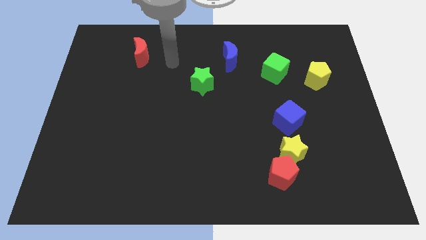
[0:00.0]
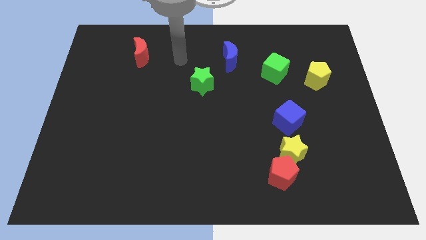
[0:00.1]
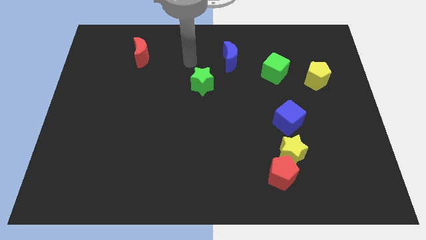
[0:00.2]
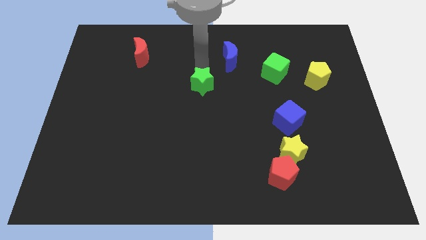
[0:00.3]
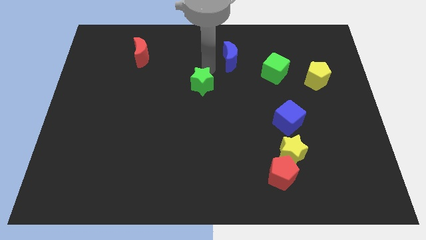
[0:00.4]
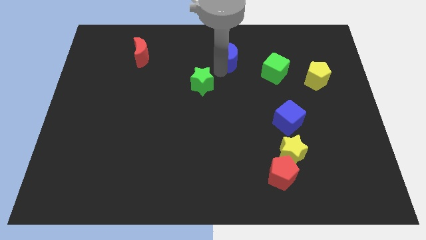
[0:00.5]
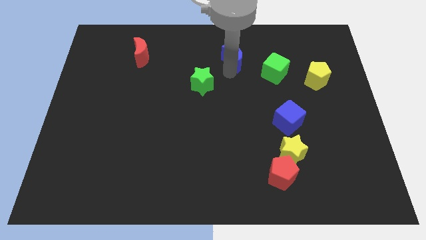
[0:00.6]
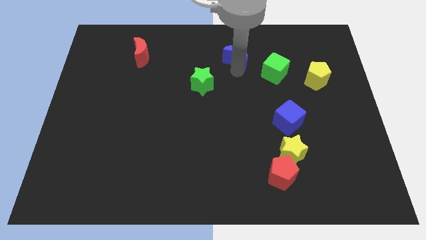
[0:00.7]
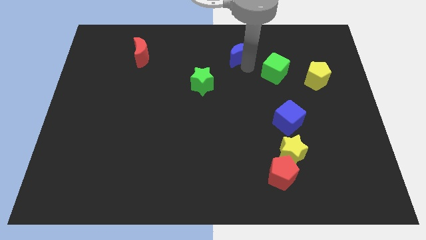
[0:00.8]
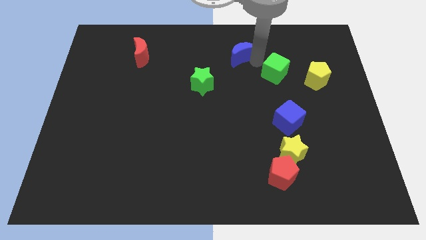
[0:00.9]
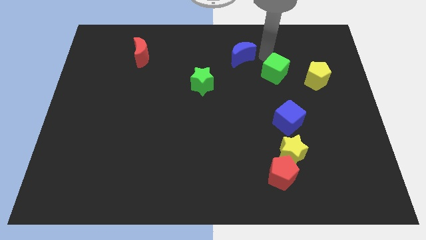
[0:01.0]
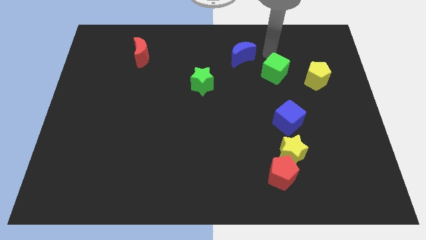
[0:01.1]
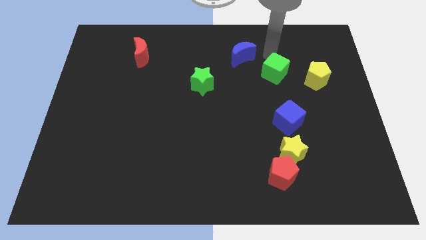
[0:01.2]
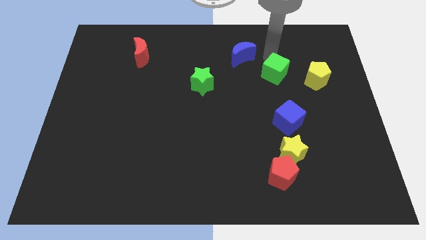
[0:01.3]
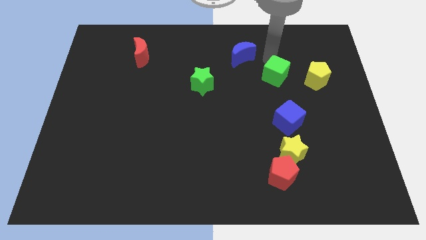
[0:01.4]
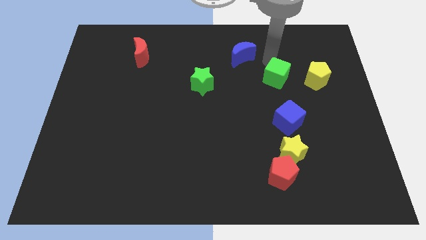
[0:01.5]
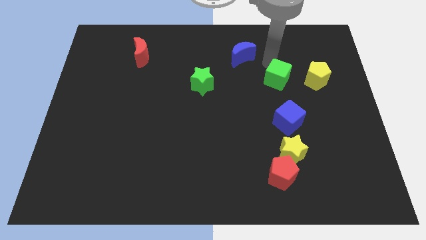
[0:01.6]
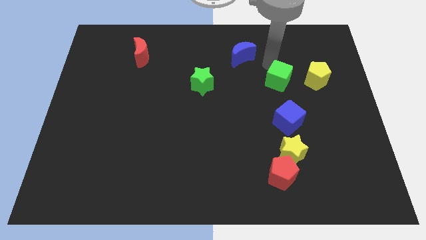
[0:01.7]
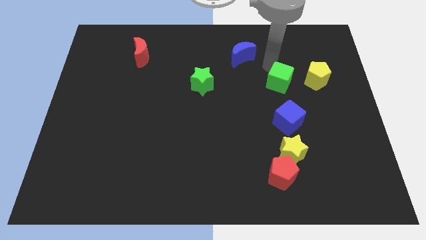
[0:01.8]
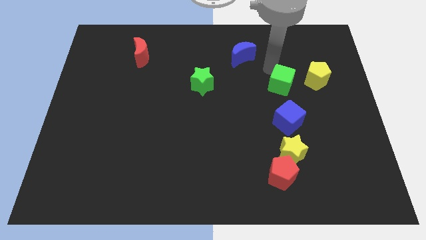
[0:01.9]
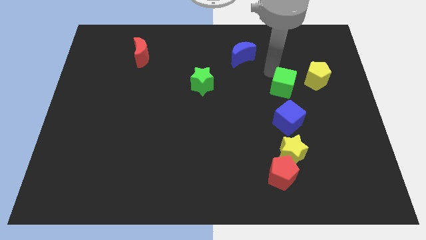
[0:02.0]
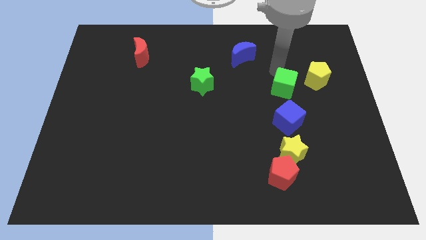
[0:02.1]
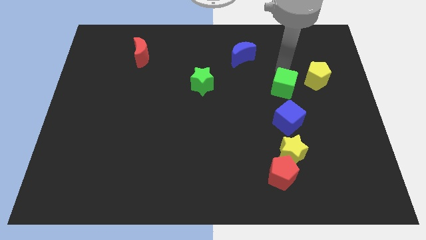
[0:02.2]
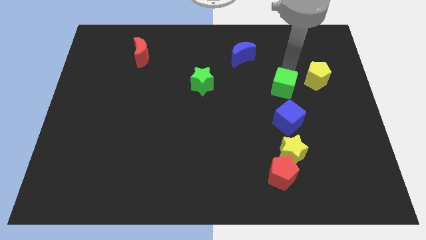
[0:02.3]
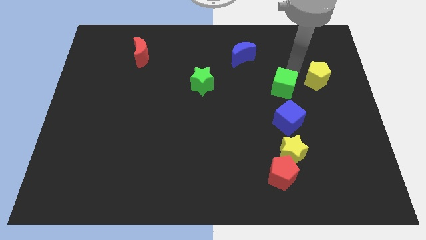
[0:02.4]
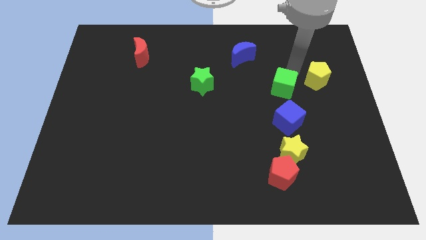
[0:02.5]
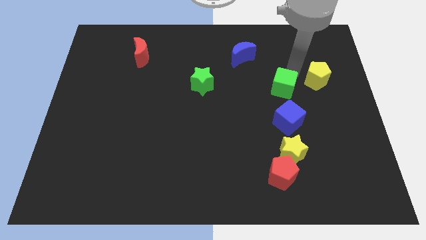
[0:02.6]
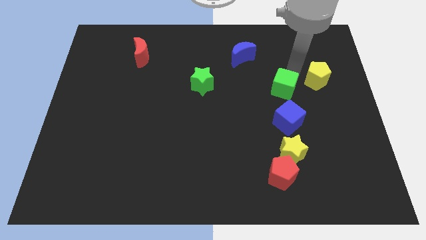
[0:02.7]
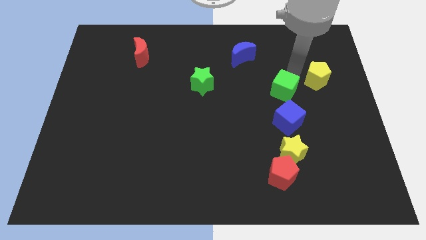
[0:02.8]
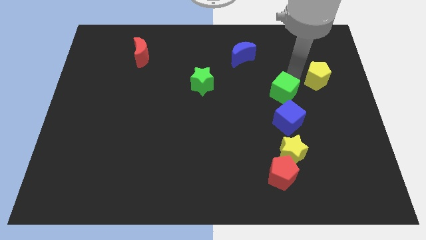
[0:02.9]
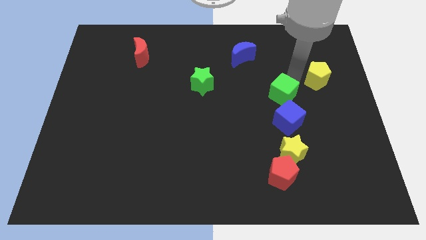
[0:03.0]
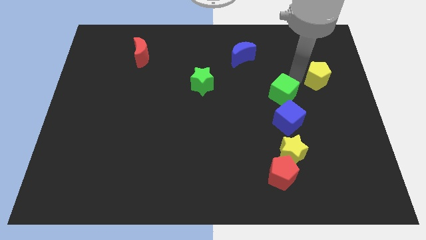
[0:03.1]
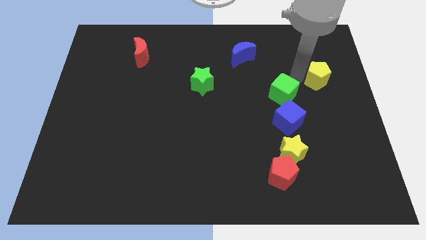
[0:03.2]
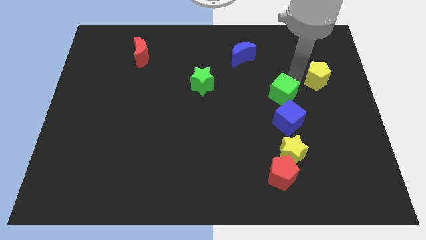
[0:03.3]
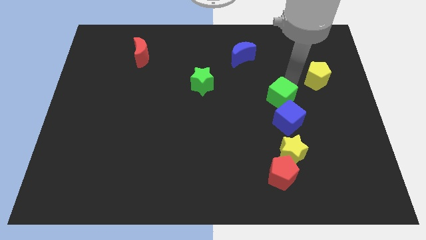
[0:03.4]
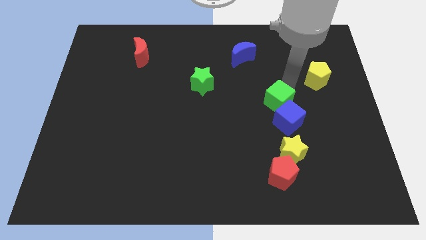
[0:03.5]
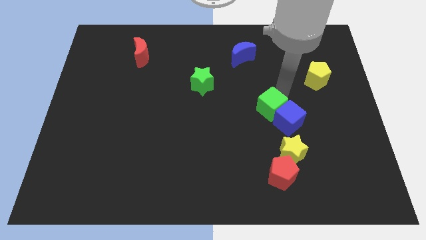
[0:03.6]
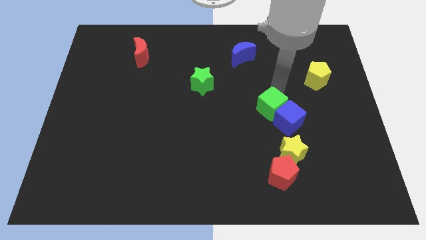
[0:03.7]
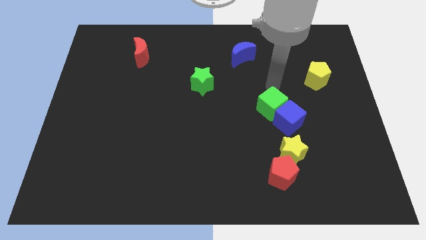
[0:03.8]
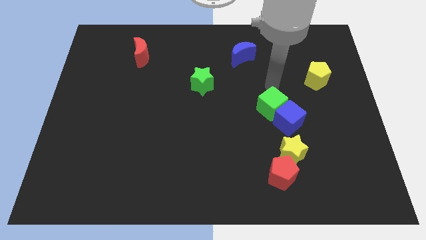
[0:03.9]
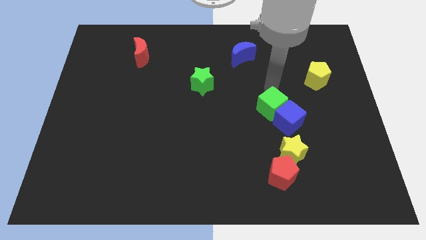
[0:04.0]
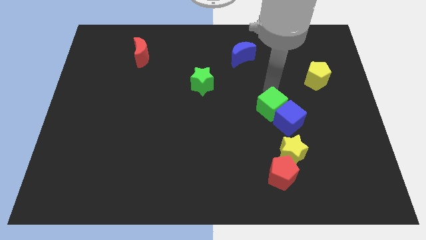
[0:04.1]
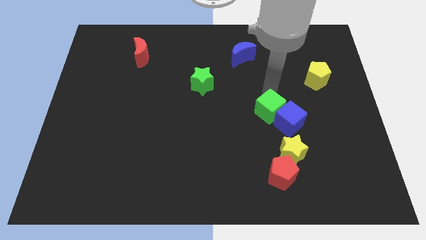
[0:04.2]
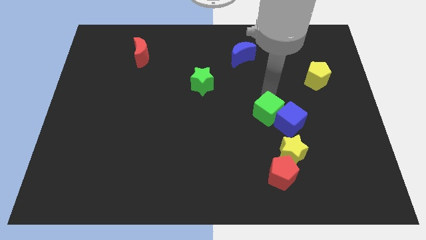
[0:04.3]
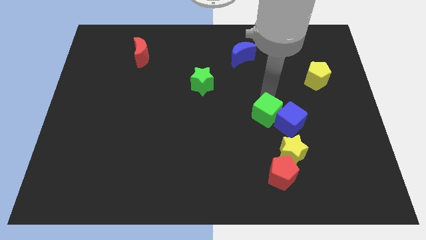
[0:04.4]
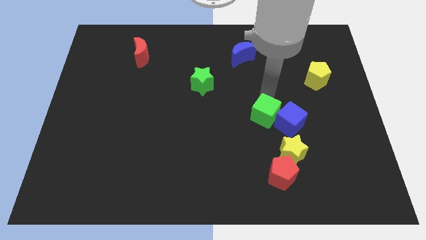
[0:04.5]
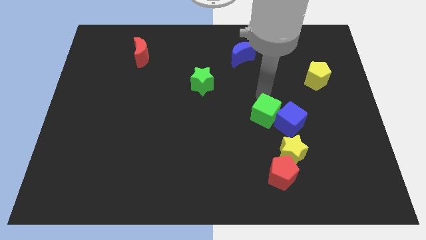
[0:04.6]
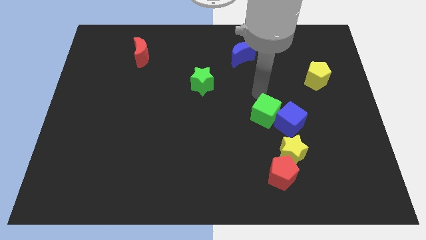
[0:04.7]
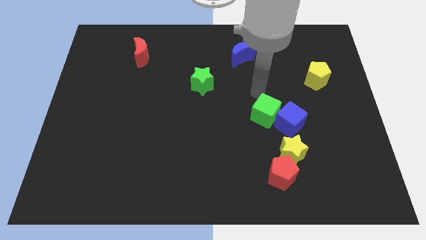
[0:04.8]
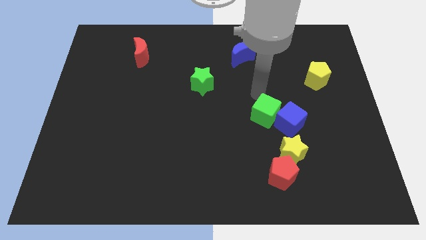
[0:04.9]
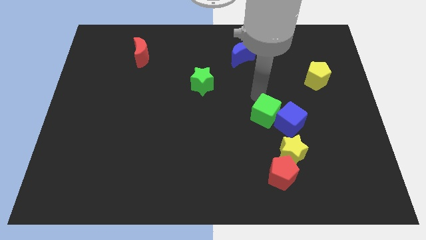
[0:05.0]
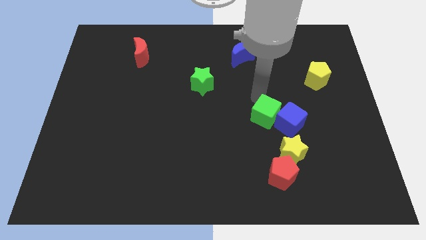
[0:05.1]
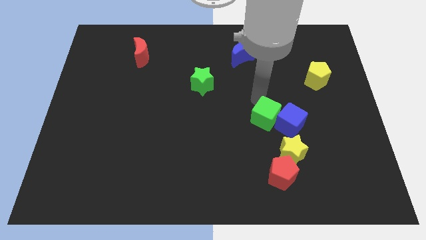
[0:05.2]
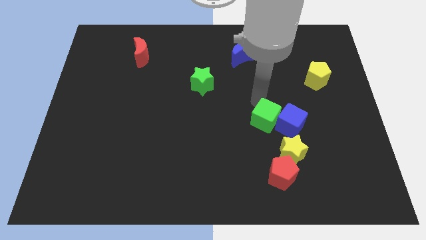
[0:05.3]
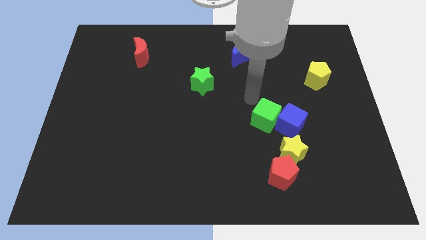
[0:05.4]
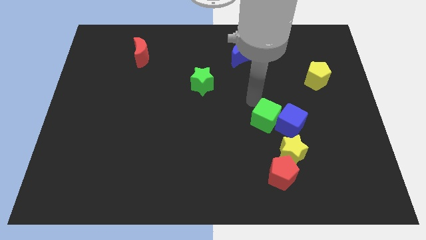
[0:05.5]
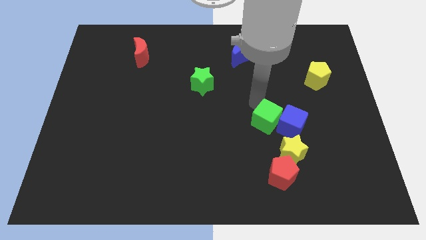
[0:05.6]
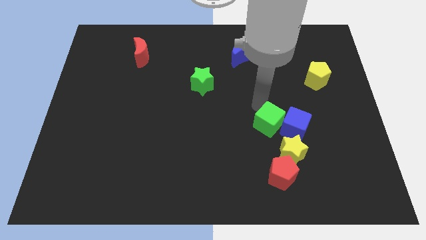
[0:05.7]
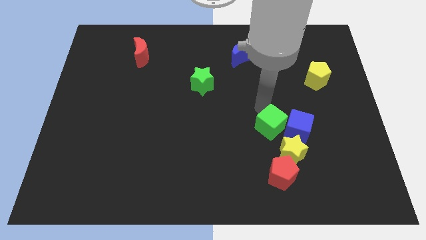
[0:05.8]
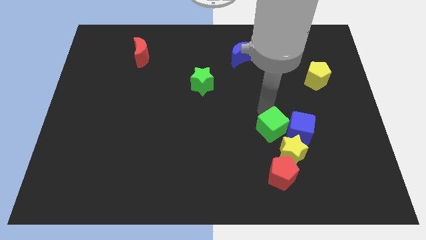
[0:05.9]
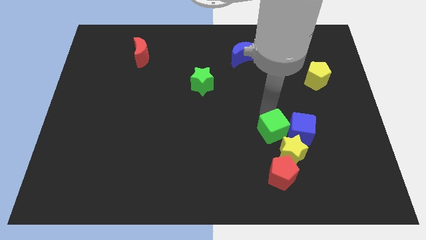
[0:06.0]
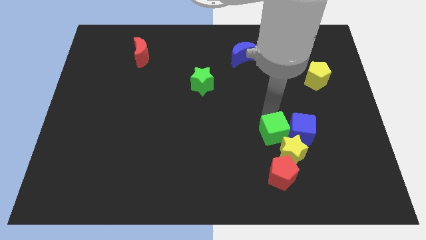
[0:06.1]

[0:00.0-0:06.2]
put the green cube close to the yellow star

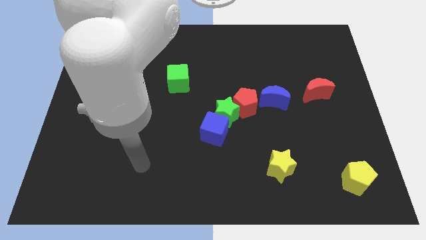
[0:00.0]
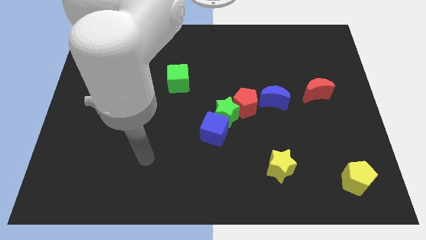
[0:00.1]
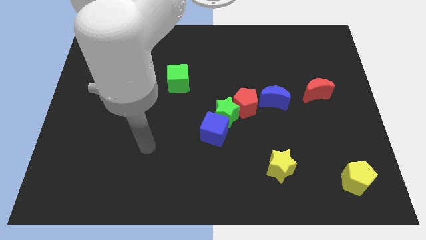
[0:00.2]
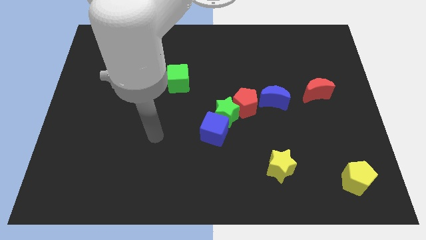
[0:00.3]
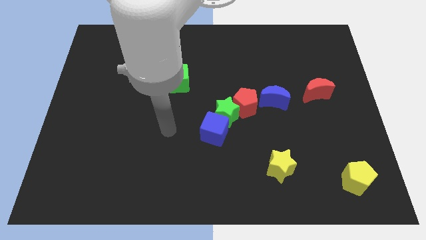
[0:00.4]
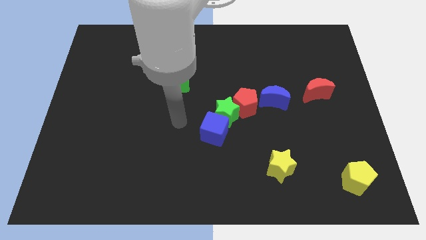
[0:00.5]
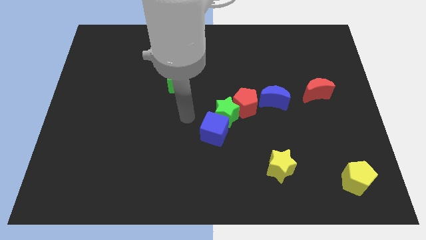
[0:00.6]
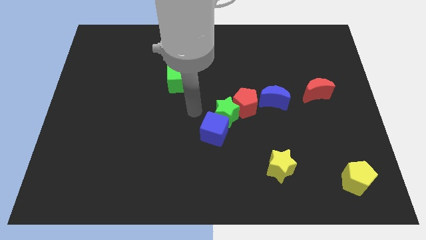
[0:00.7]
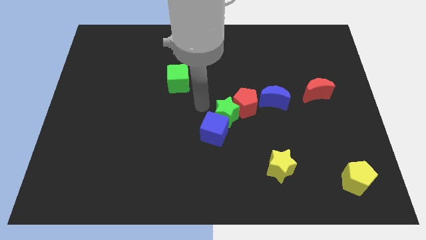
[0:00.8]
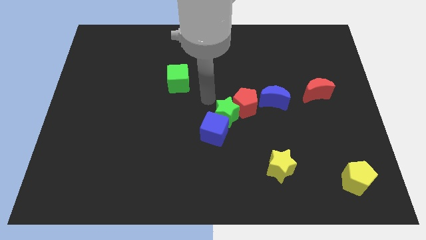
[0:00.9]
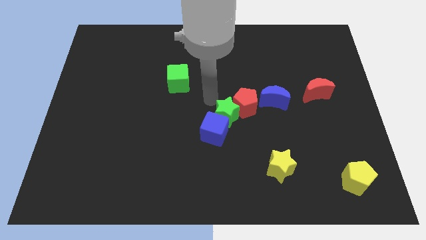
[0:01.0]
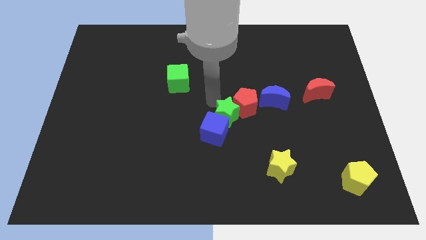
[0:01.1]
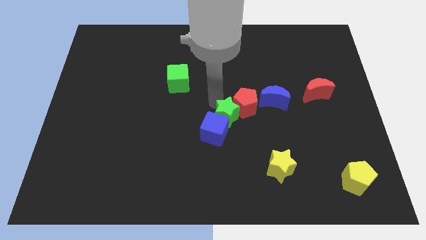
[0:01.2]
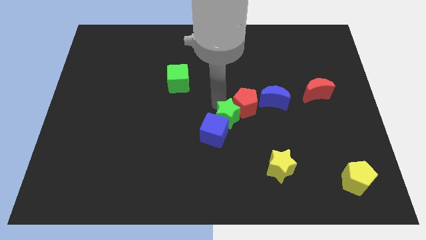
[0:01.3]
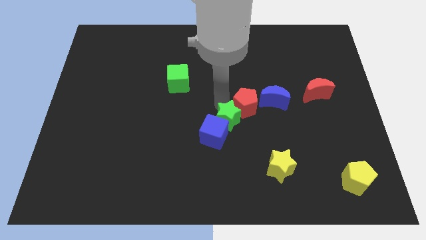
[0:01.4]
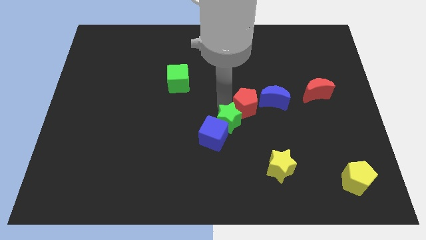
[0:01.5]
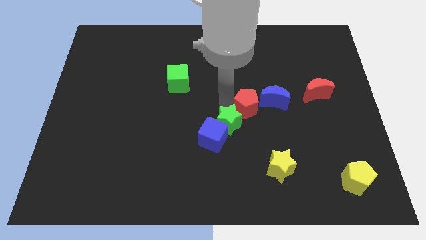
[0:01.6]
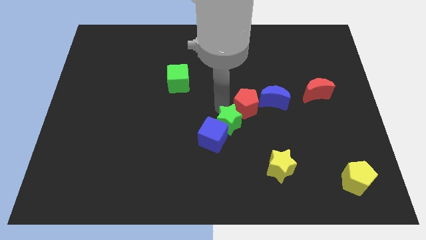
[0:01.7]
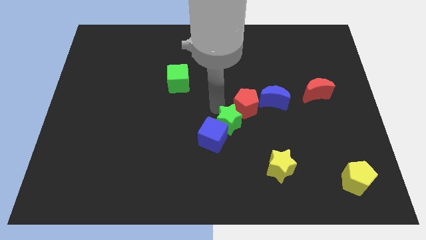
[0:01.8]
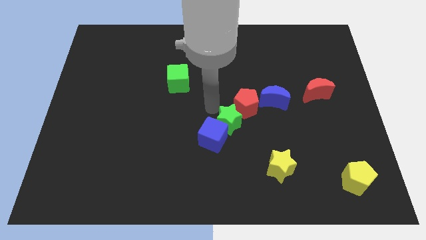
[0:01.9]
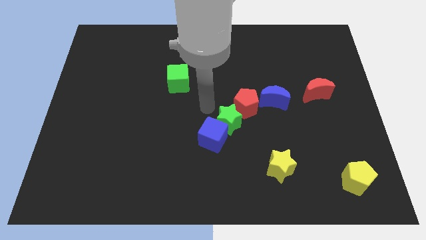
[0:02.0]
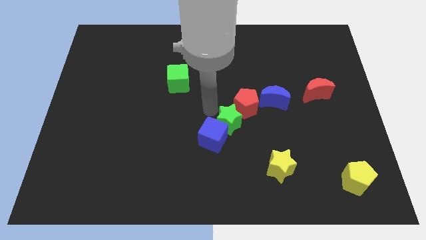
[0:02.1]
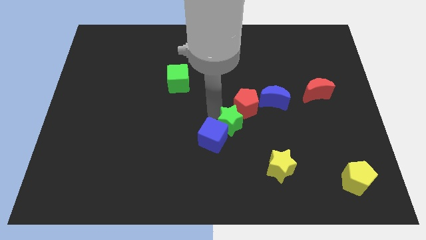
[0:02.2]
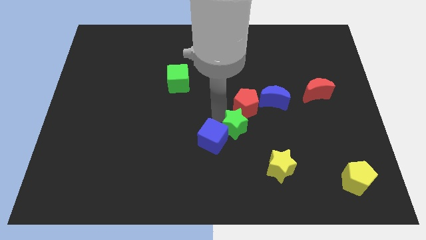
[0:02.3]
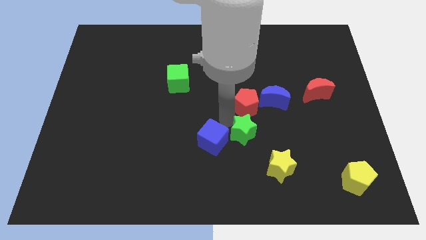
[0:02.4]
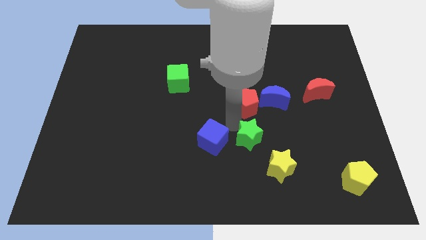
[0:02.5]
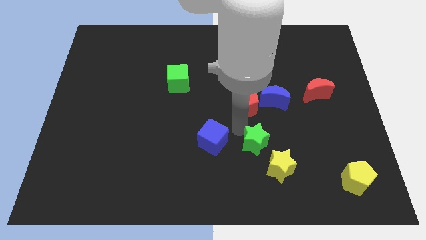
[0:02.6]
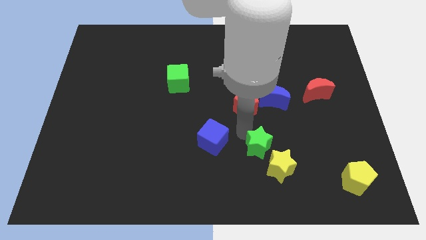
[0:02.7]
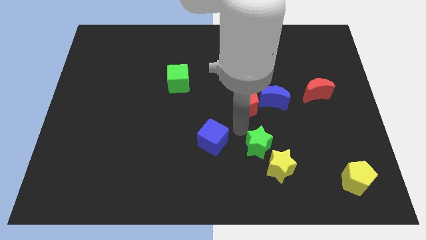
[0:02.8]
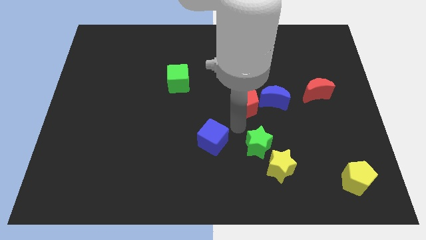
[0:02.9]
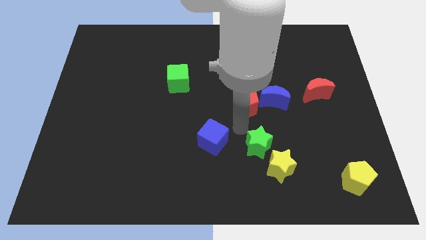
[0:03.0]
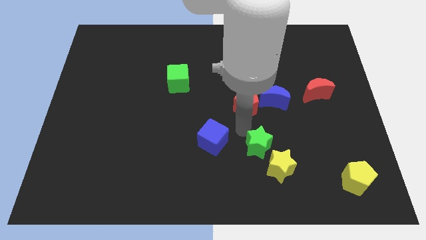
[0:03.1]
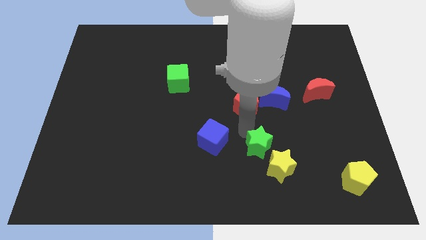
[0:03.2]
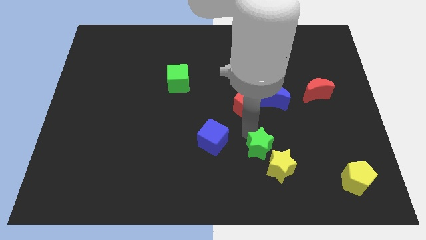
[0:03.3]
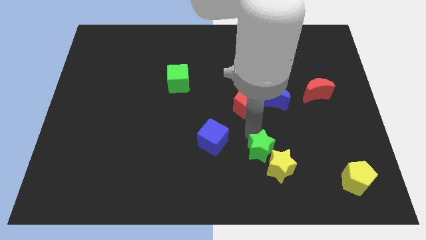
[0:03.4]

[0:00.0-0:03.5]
push the green star to the yellow star
